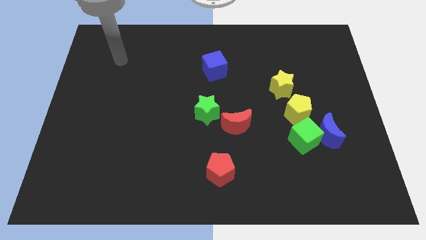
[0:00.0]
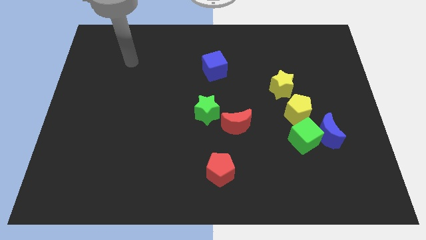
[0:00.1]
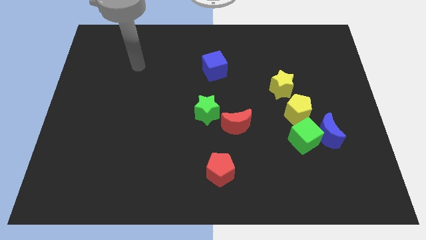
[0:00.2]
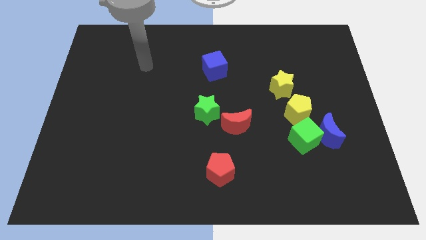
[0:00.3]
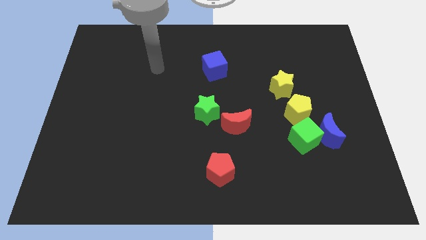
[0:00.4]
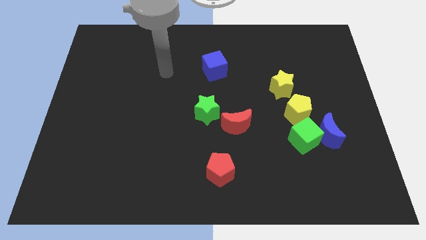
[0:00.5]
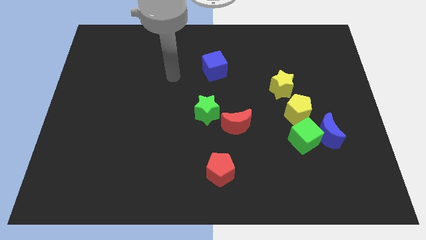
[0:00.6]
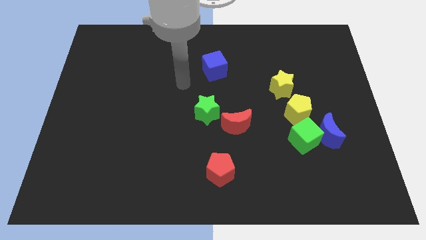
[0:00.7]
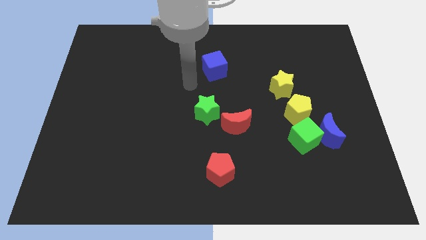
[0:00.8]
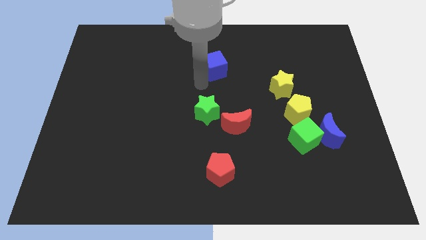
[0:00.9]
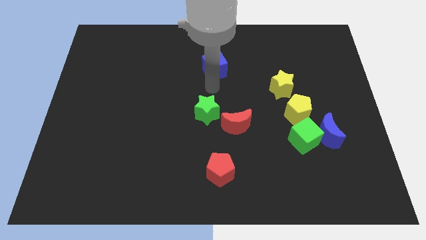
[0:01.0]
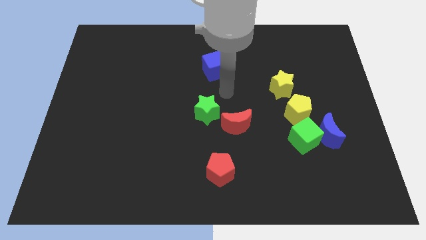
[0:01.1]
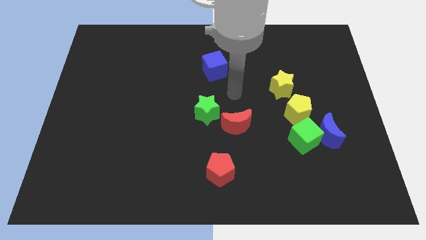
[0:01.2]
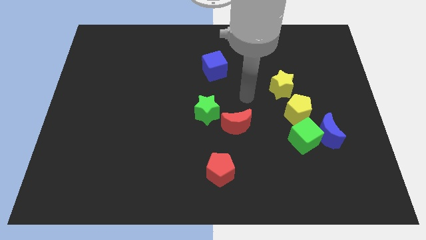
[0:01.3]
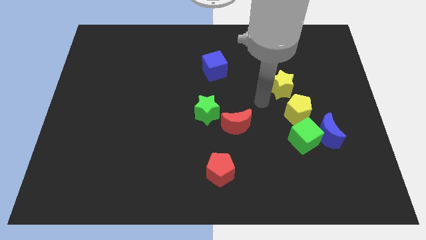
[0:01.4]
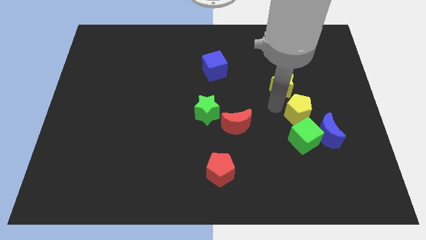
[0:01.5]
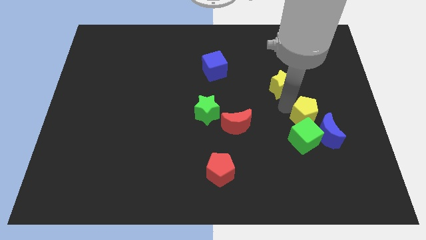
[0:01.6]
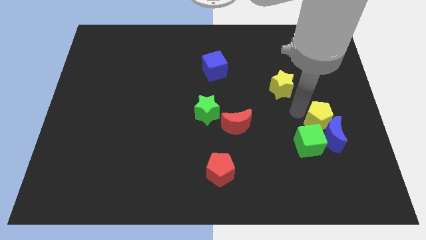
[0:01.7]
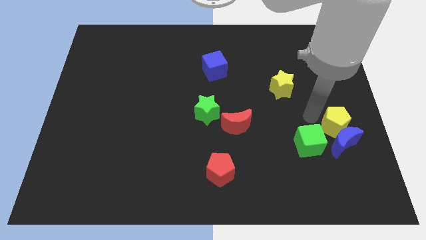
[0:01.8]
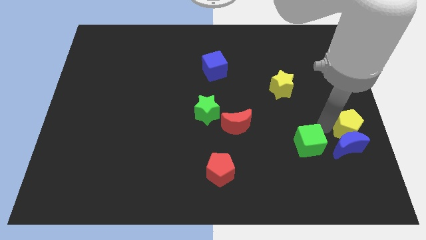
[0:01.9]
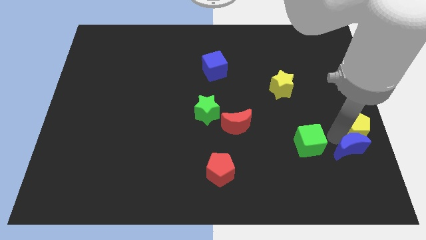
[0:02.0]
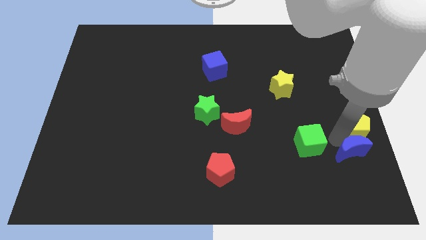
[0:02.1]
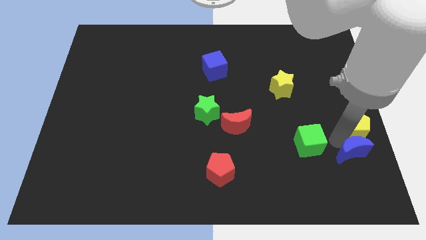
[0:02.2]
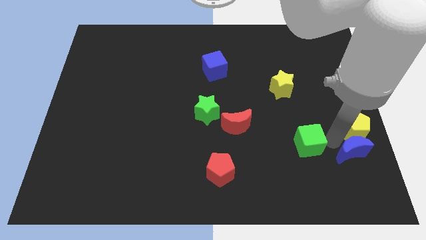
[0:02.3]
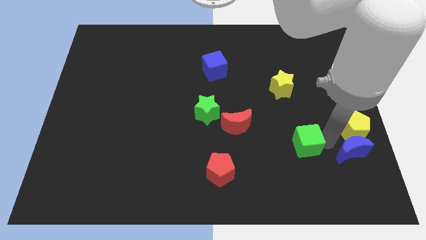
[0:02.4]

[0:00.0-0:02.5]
move the green cube away from the blue moon and yellow pentagon

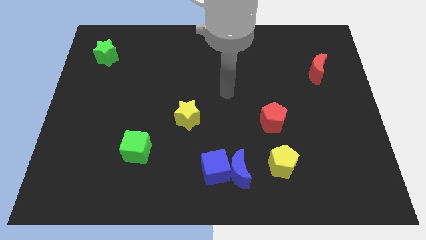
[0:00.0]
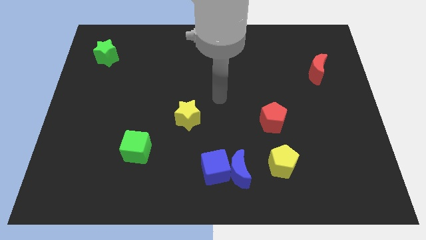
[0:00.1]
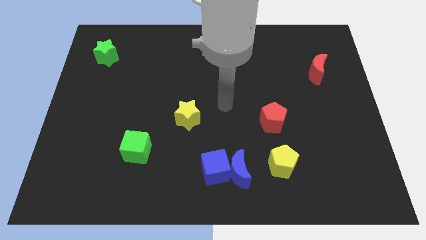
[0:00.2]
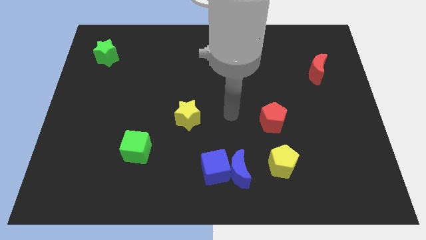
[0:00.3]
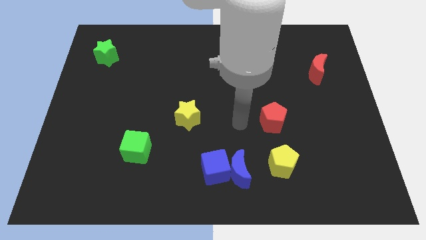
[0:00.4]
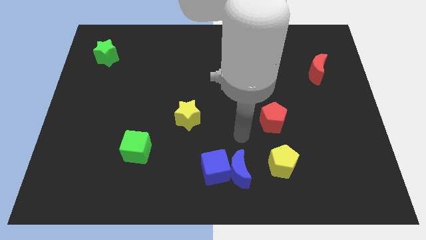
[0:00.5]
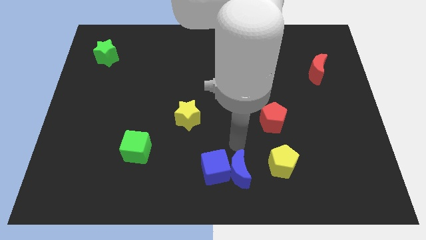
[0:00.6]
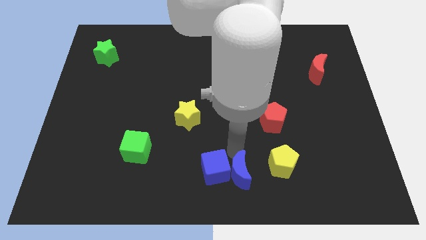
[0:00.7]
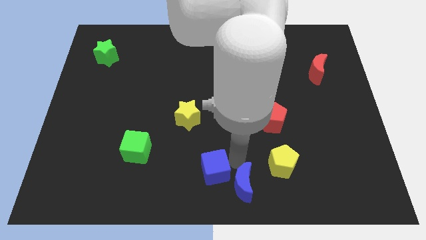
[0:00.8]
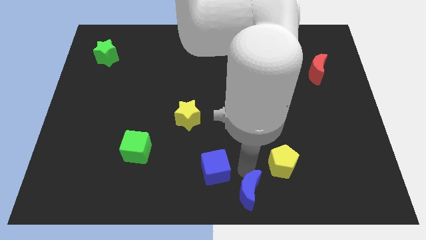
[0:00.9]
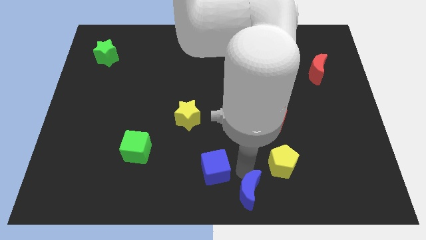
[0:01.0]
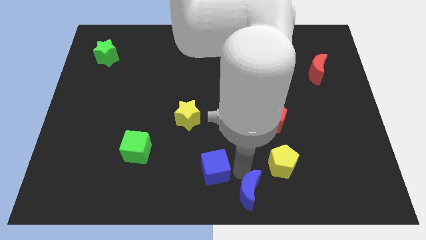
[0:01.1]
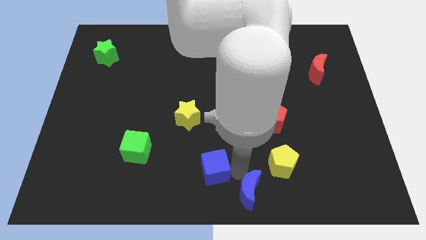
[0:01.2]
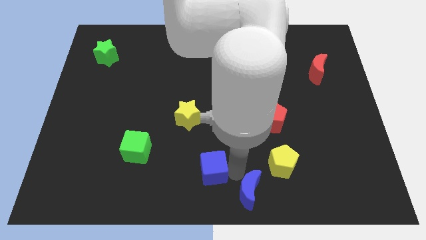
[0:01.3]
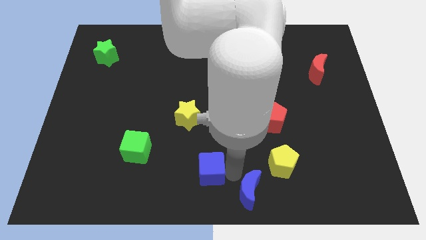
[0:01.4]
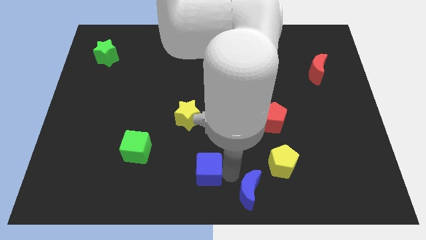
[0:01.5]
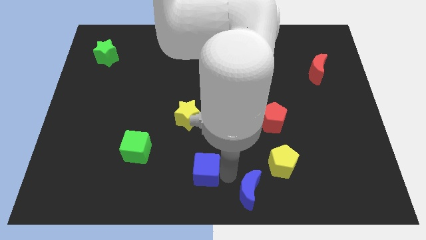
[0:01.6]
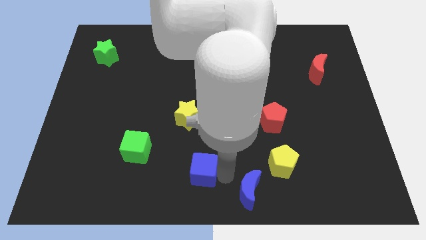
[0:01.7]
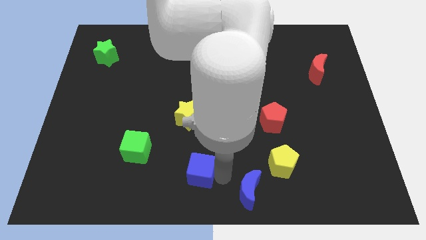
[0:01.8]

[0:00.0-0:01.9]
pull the blue cube apart from the blue moon

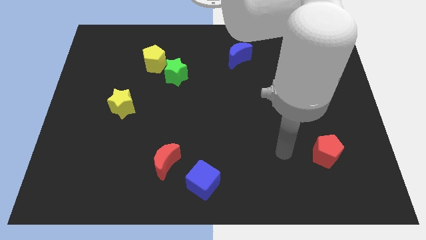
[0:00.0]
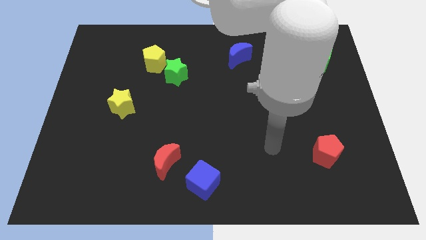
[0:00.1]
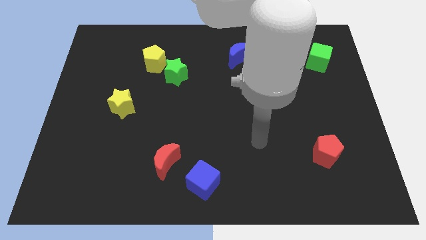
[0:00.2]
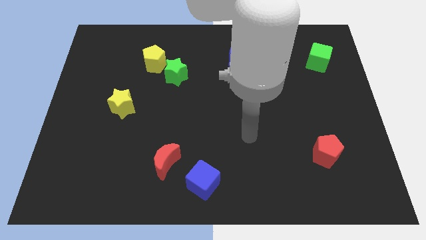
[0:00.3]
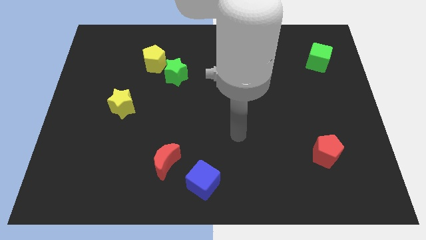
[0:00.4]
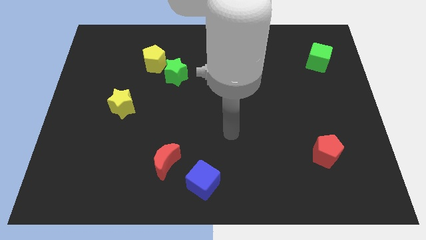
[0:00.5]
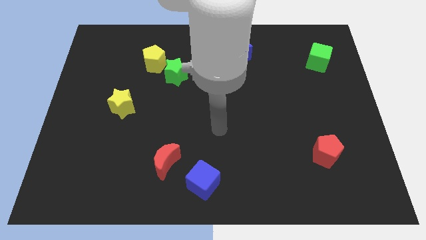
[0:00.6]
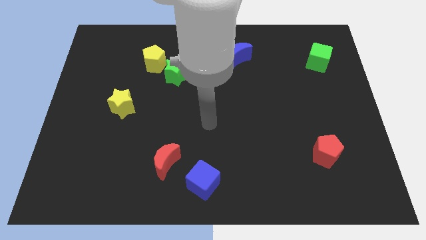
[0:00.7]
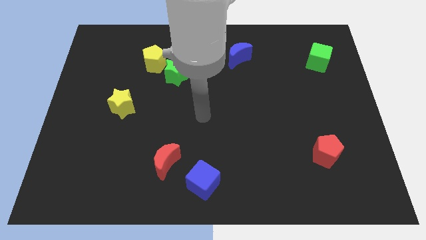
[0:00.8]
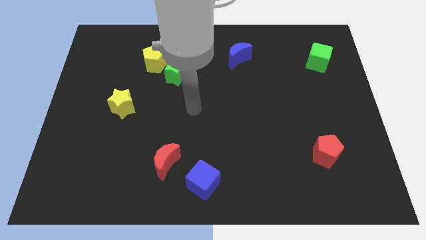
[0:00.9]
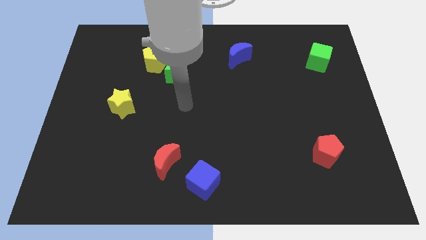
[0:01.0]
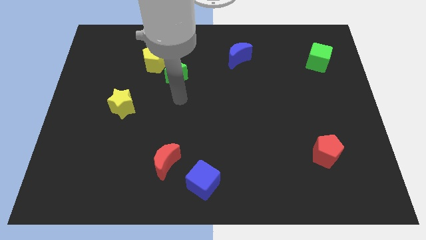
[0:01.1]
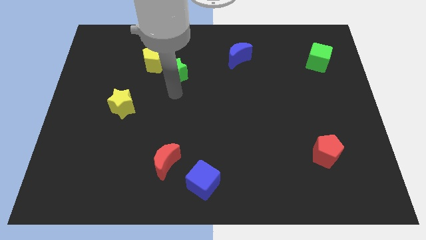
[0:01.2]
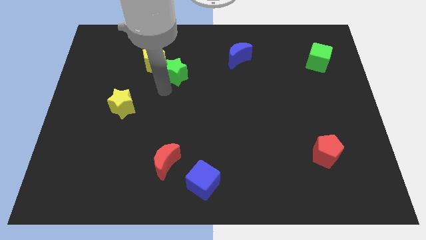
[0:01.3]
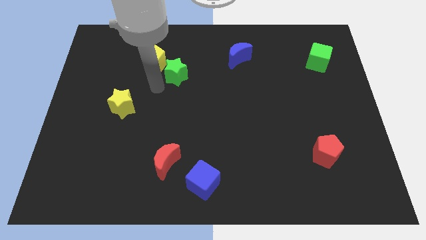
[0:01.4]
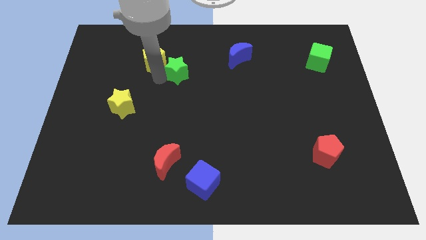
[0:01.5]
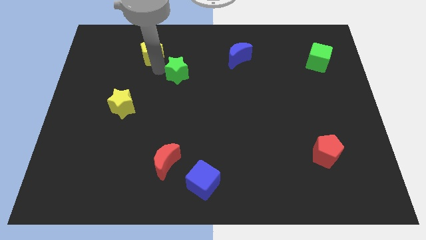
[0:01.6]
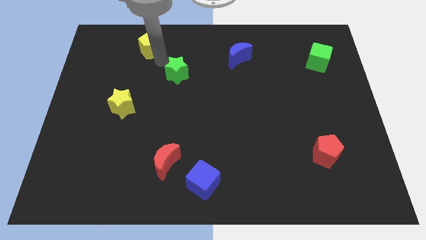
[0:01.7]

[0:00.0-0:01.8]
separate the green star from the yellow pentagon

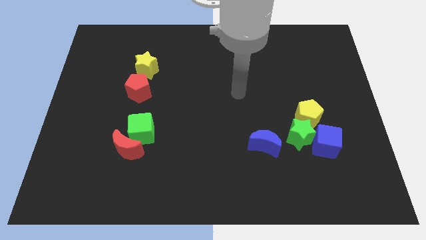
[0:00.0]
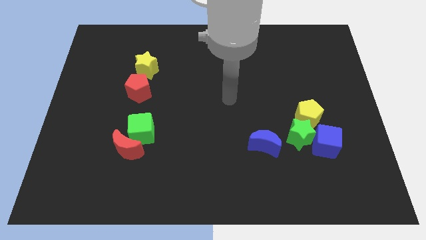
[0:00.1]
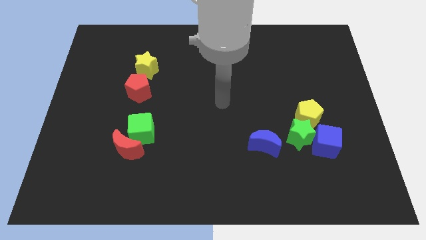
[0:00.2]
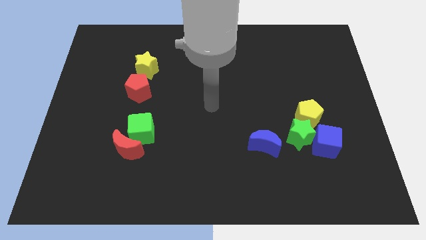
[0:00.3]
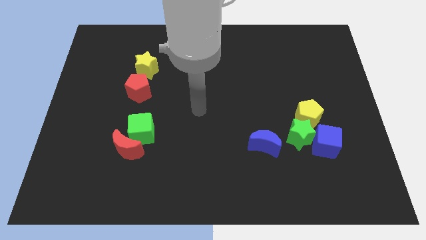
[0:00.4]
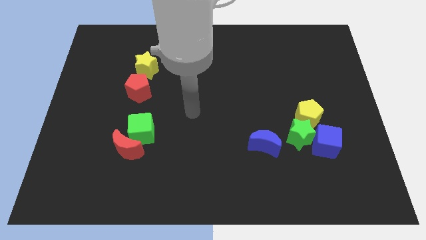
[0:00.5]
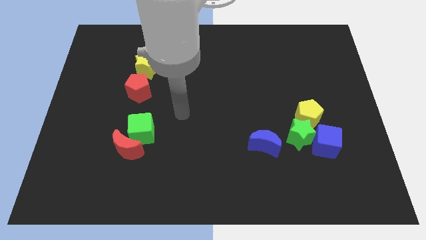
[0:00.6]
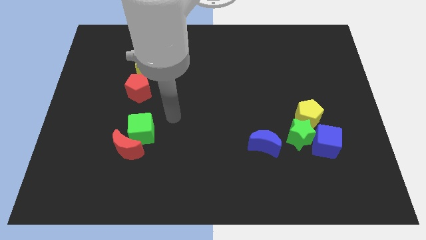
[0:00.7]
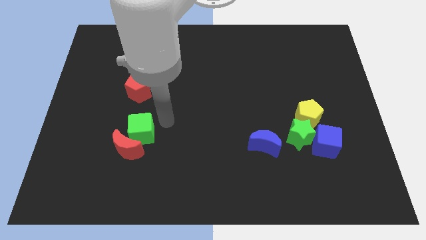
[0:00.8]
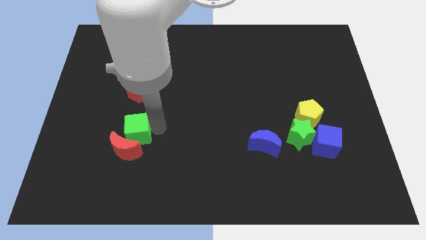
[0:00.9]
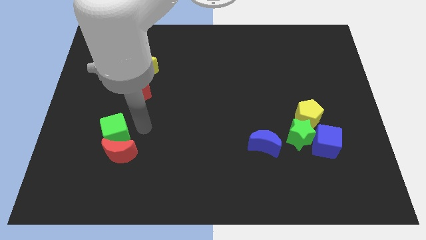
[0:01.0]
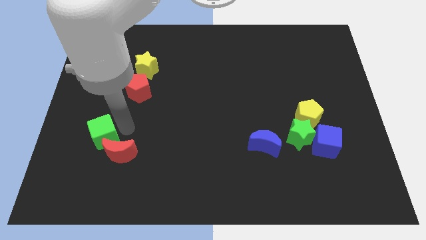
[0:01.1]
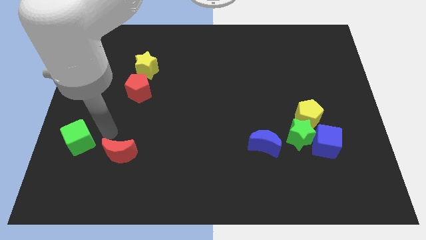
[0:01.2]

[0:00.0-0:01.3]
pull the red moon apart from the green cube

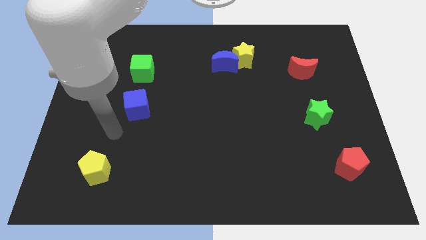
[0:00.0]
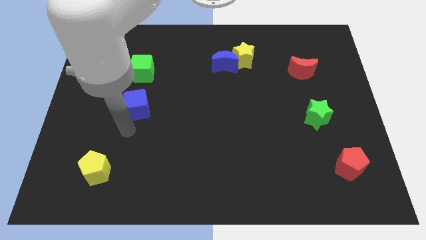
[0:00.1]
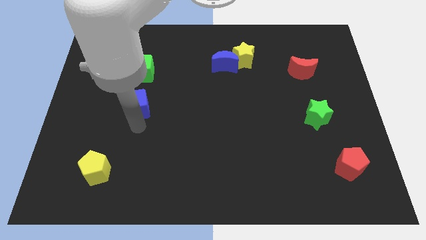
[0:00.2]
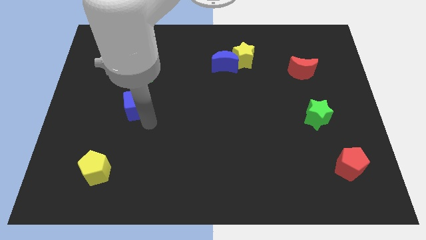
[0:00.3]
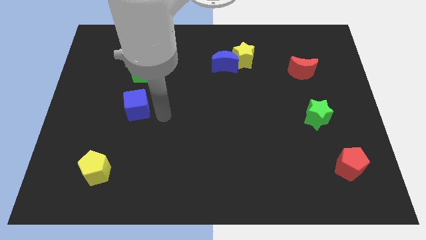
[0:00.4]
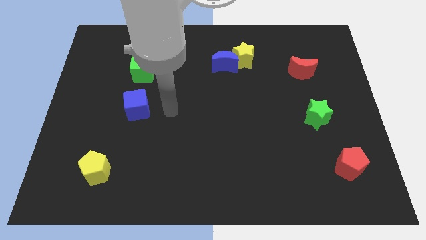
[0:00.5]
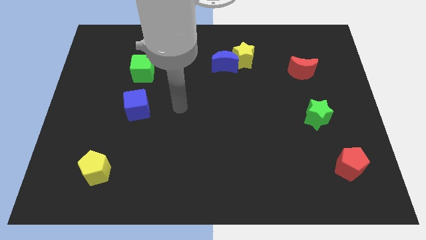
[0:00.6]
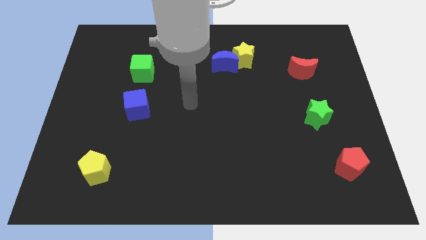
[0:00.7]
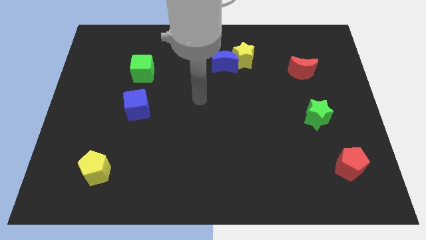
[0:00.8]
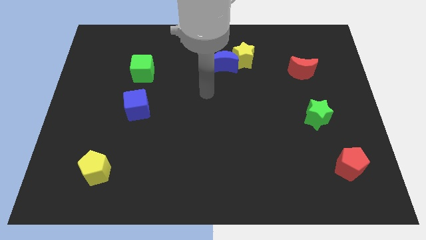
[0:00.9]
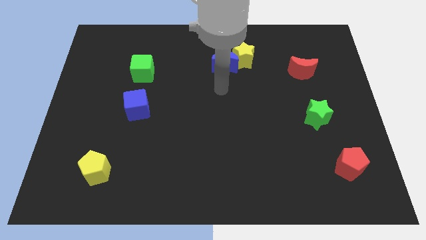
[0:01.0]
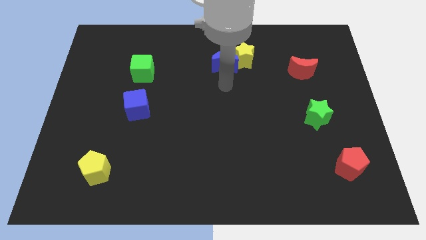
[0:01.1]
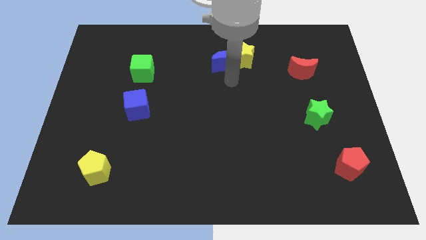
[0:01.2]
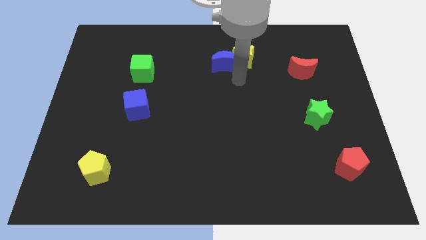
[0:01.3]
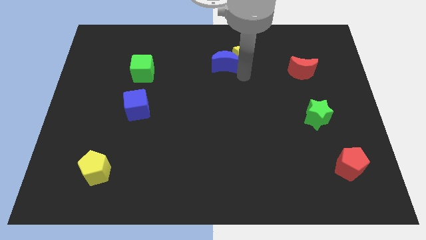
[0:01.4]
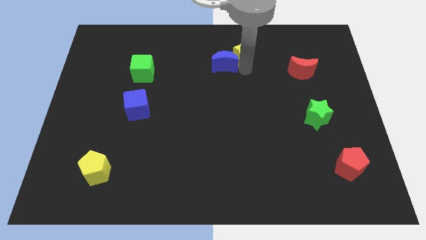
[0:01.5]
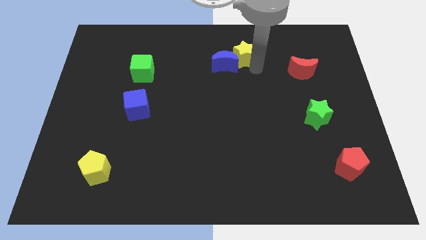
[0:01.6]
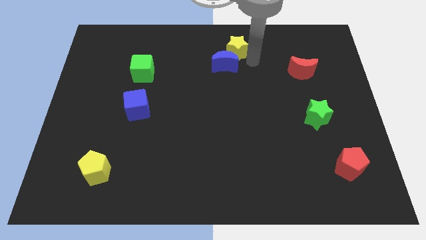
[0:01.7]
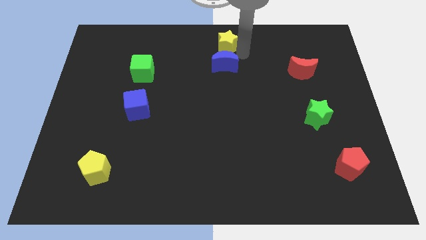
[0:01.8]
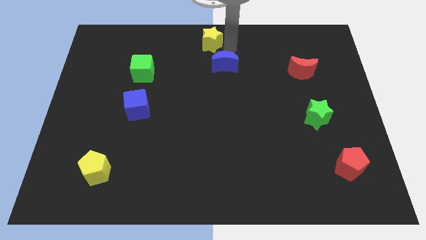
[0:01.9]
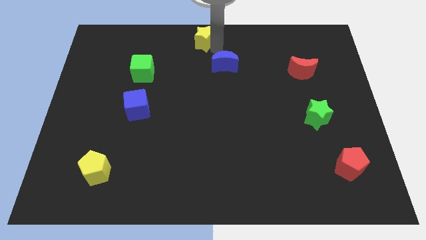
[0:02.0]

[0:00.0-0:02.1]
pull the blue moon apart from the yellow star
